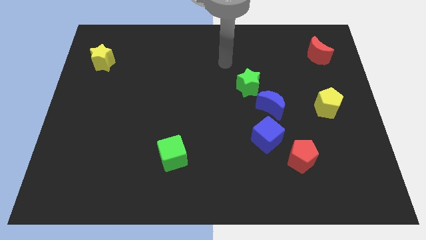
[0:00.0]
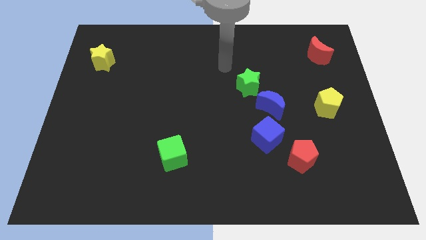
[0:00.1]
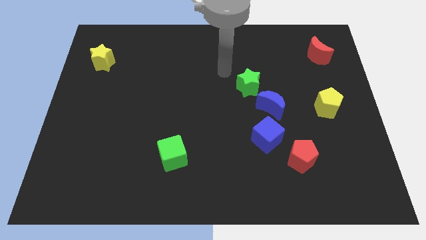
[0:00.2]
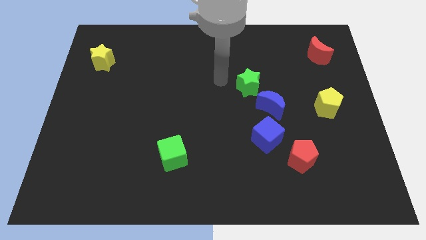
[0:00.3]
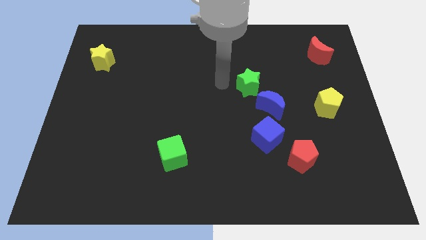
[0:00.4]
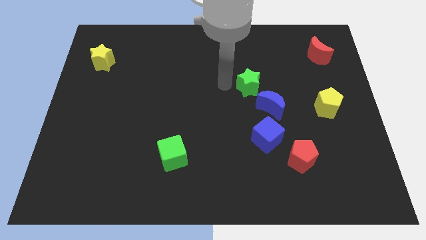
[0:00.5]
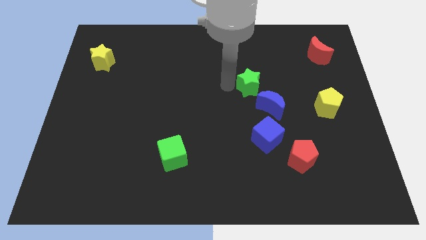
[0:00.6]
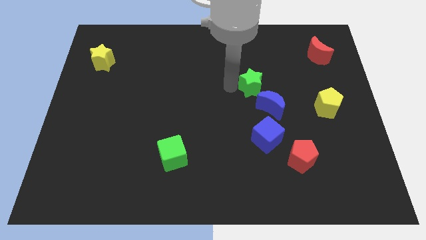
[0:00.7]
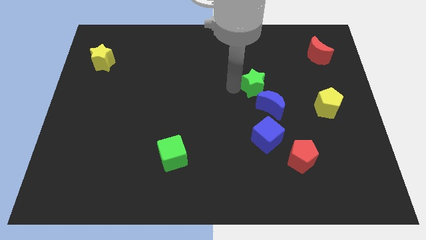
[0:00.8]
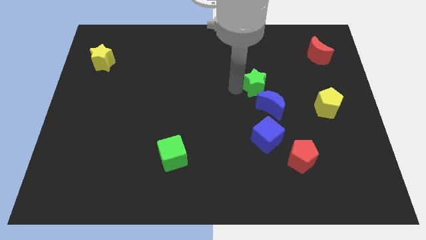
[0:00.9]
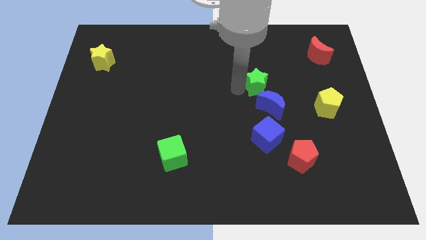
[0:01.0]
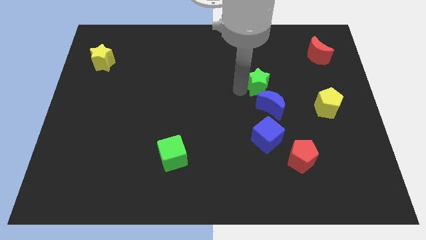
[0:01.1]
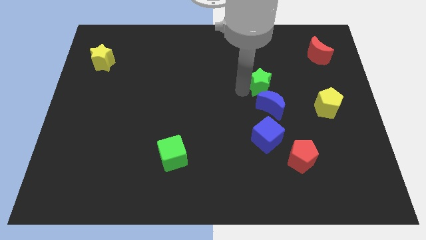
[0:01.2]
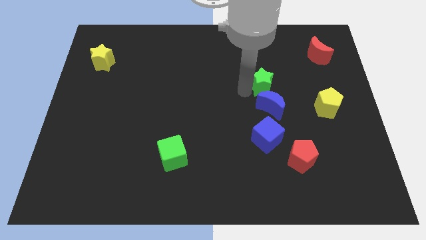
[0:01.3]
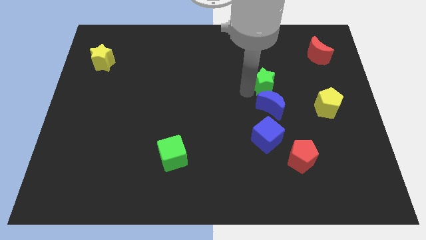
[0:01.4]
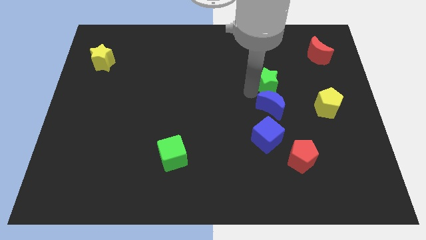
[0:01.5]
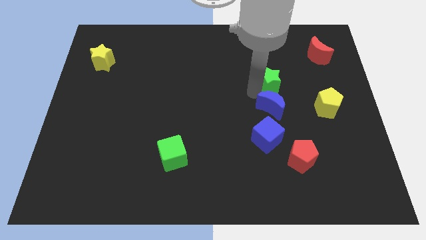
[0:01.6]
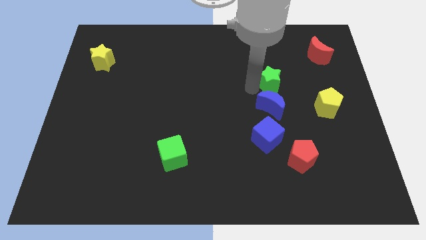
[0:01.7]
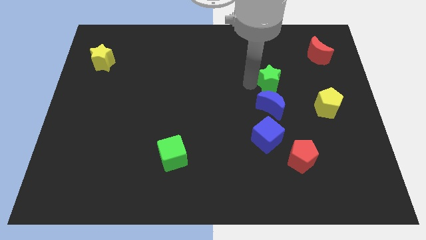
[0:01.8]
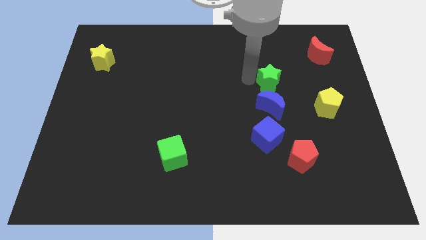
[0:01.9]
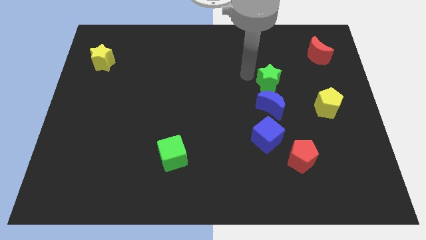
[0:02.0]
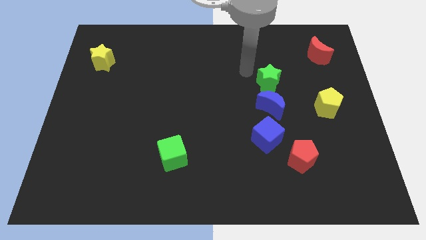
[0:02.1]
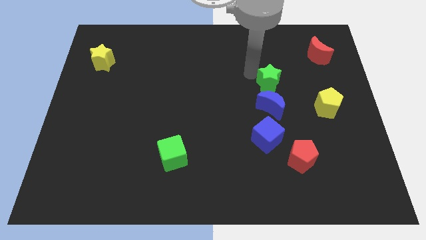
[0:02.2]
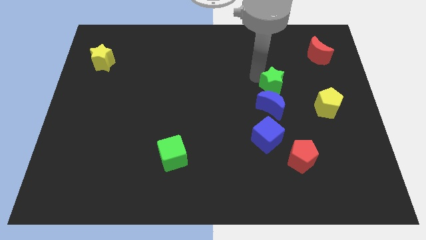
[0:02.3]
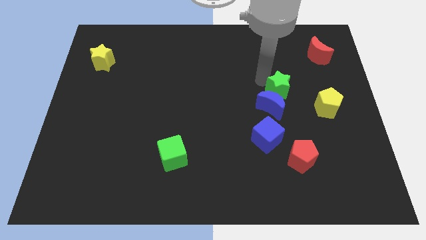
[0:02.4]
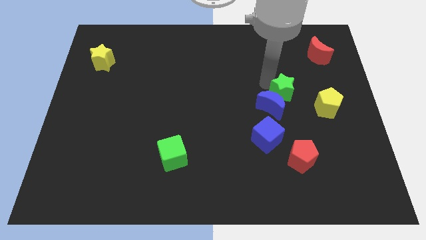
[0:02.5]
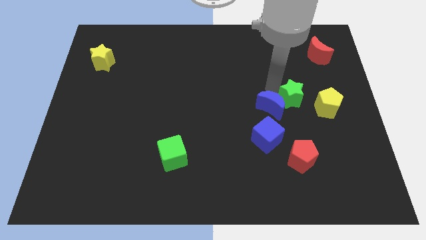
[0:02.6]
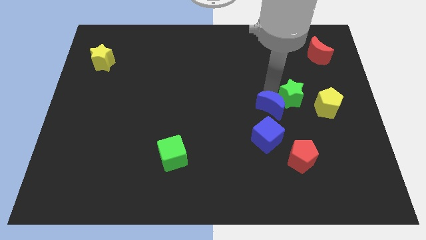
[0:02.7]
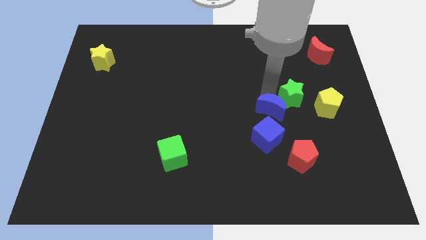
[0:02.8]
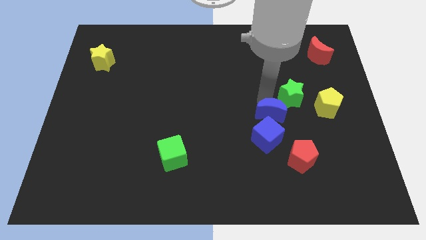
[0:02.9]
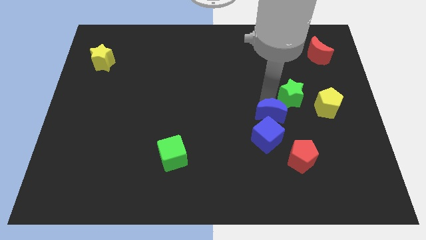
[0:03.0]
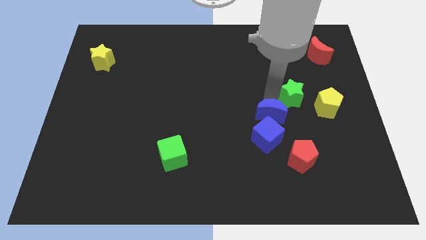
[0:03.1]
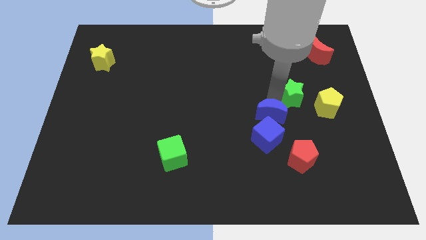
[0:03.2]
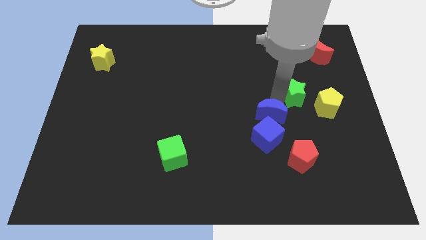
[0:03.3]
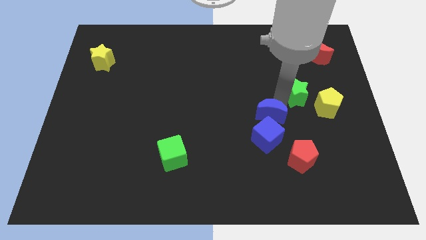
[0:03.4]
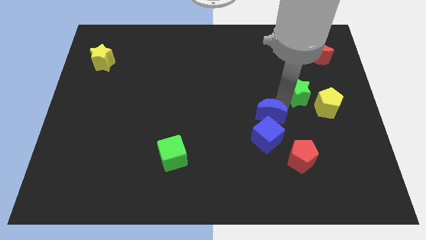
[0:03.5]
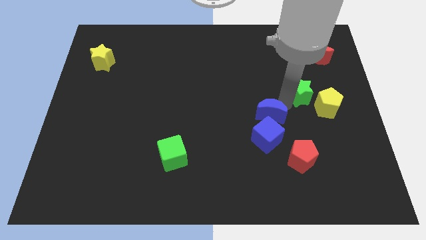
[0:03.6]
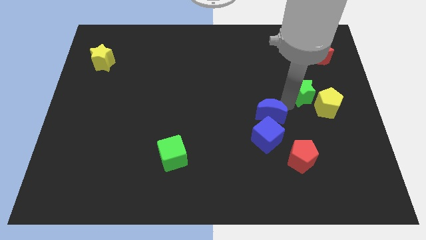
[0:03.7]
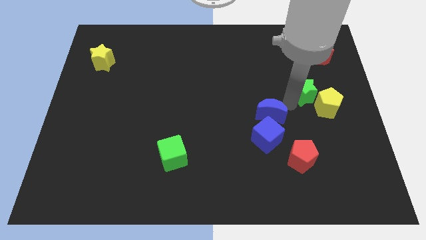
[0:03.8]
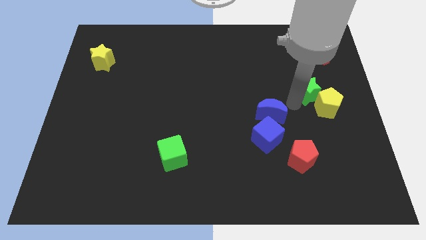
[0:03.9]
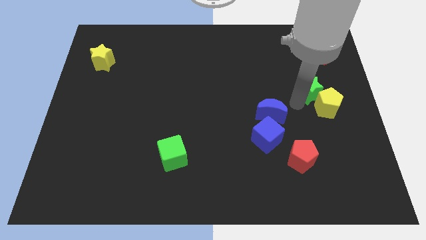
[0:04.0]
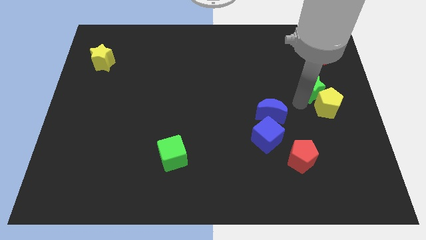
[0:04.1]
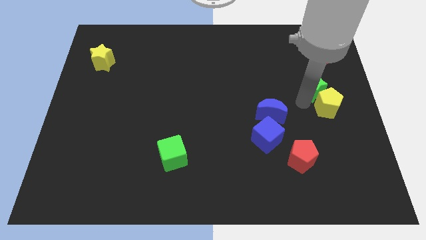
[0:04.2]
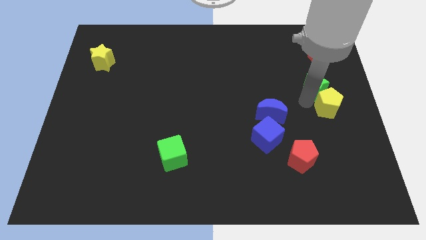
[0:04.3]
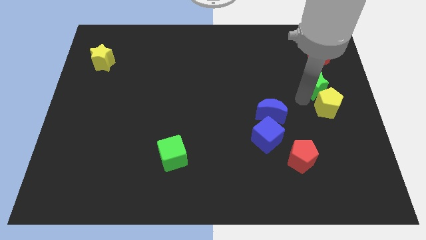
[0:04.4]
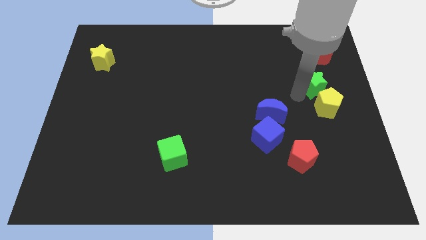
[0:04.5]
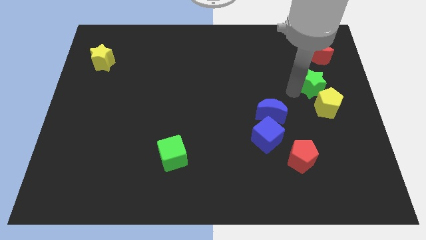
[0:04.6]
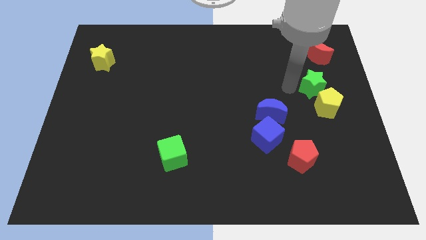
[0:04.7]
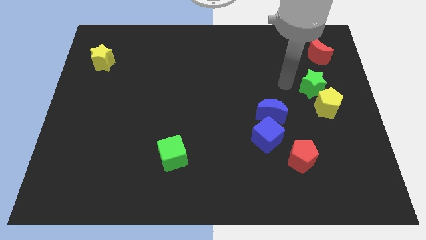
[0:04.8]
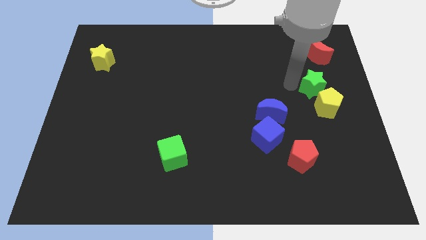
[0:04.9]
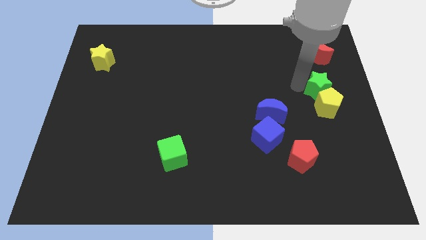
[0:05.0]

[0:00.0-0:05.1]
put the green star to the right side of the board

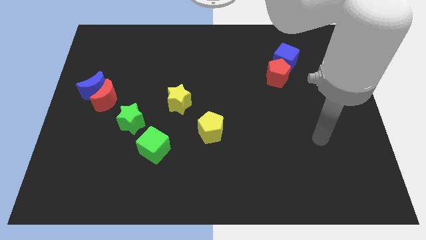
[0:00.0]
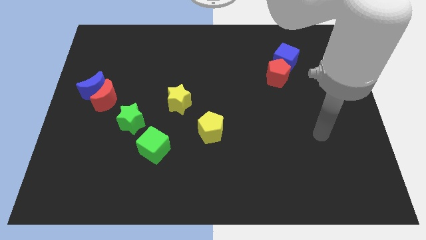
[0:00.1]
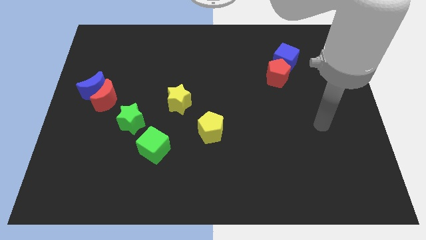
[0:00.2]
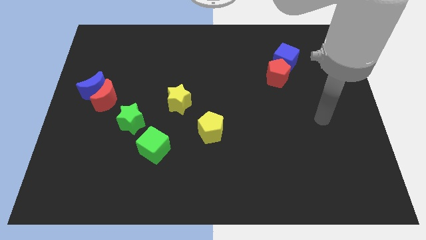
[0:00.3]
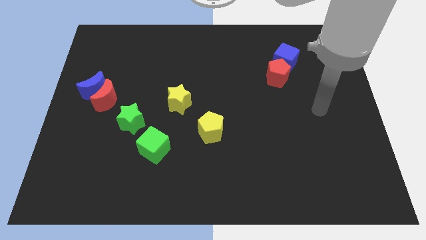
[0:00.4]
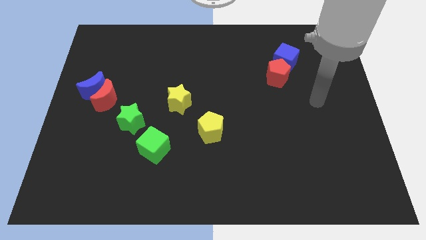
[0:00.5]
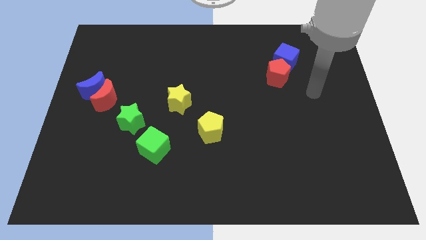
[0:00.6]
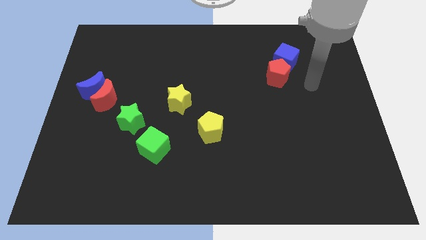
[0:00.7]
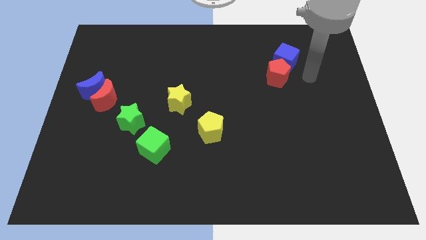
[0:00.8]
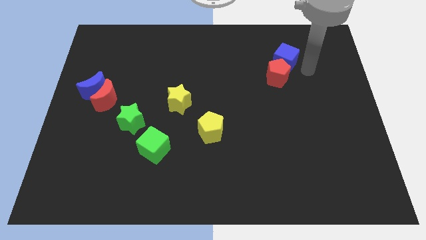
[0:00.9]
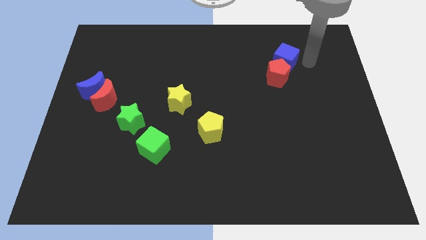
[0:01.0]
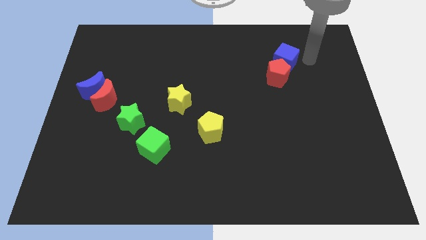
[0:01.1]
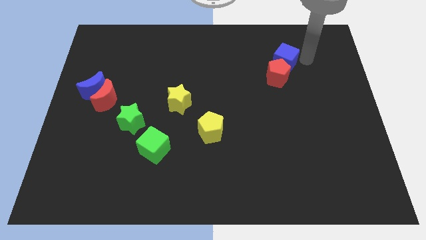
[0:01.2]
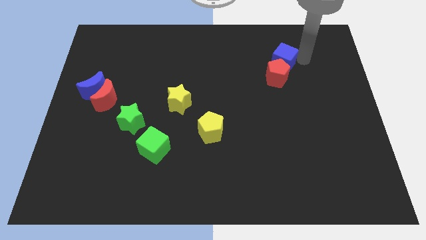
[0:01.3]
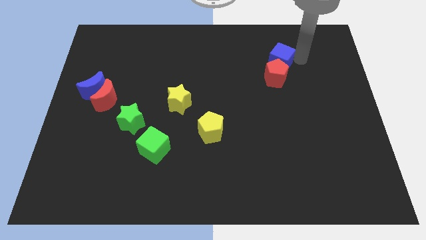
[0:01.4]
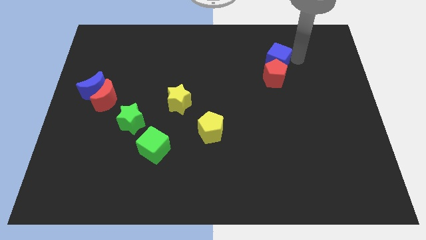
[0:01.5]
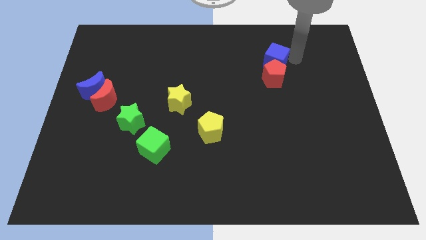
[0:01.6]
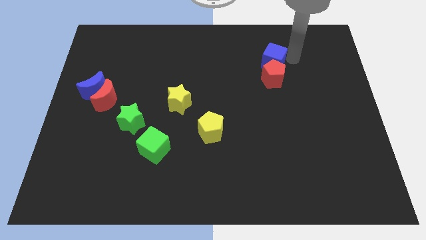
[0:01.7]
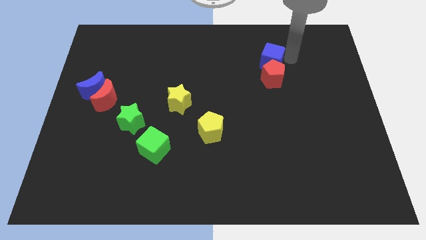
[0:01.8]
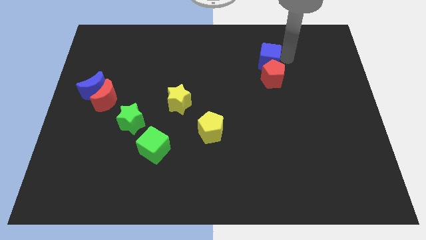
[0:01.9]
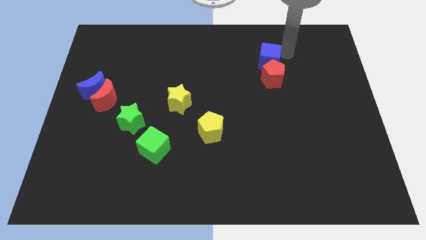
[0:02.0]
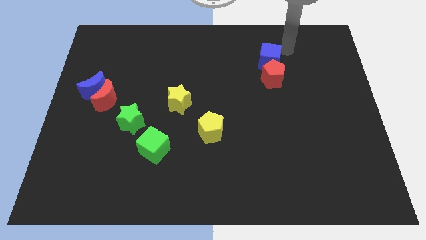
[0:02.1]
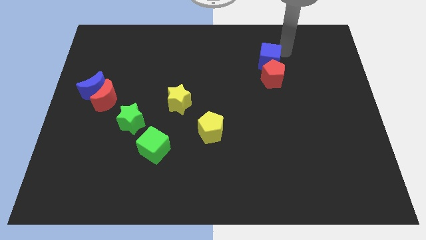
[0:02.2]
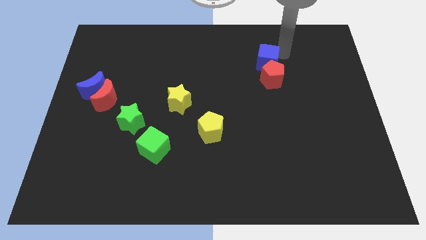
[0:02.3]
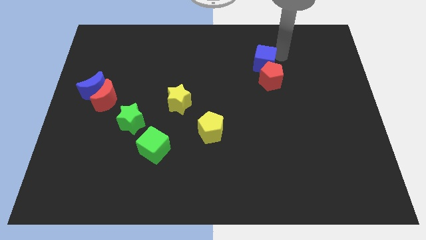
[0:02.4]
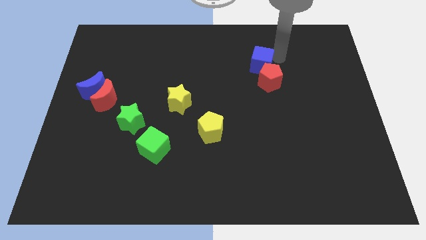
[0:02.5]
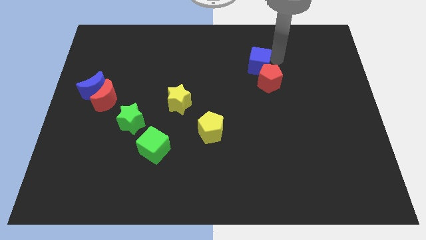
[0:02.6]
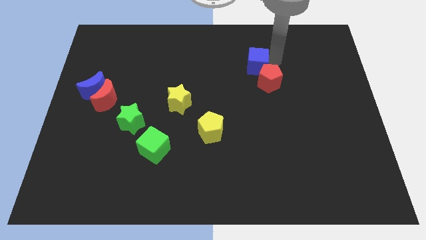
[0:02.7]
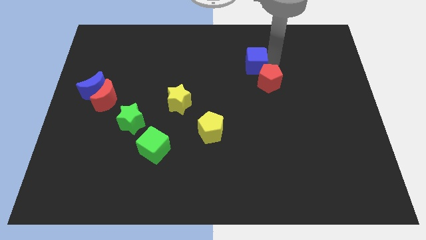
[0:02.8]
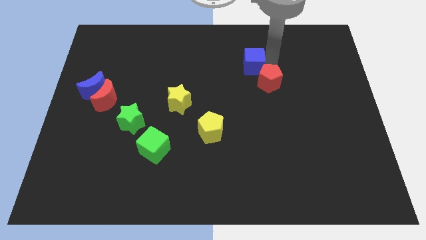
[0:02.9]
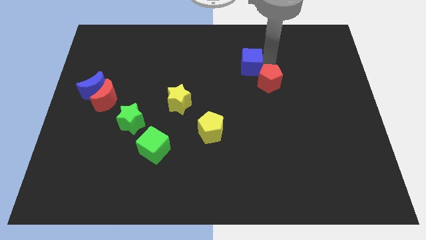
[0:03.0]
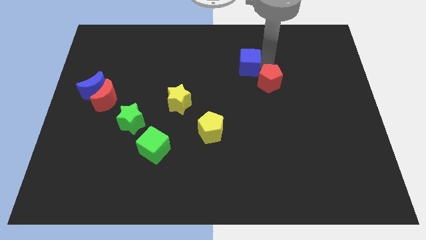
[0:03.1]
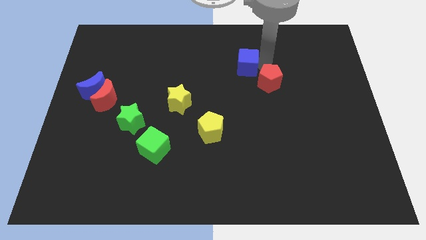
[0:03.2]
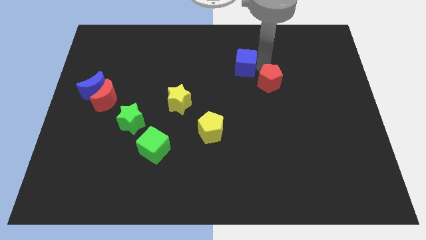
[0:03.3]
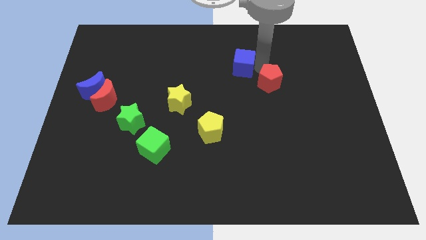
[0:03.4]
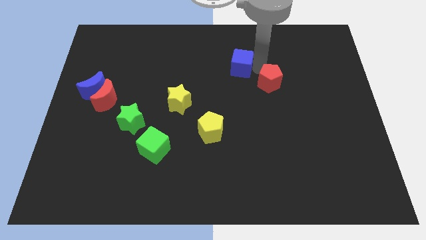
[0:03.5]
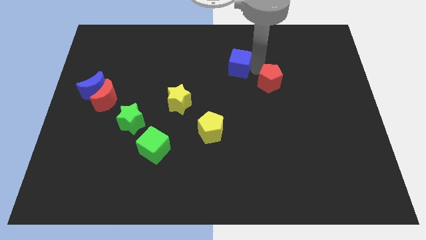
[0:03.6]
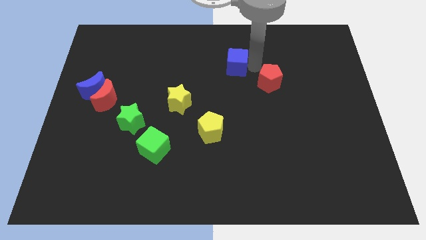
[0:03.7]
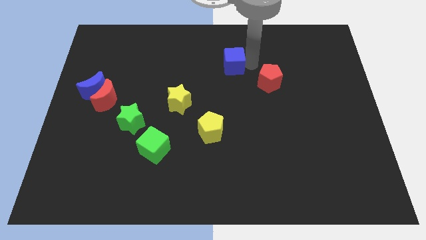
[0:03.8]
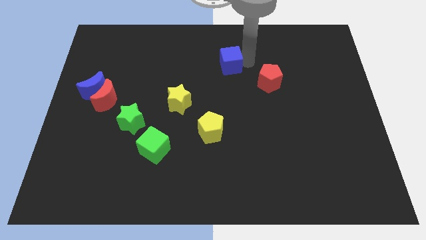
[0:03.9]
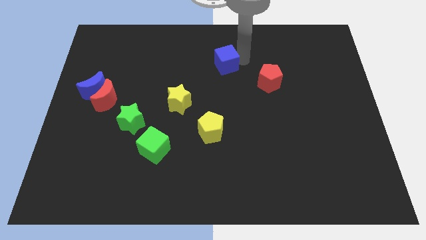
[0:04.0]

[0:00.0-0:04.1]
push the blue cube to the center of the board
